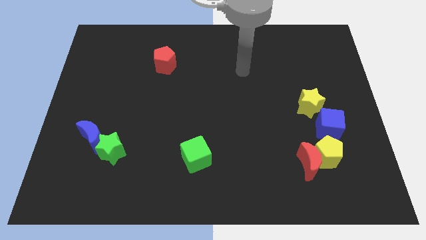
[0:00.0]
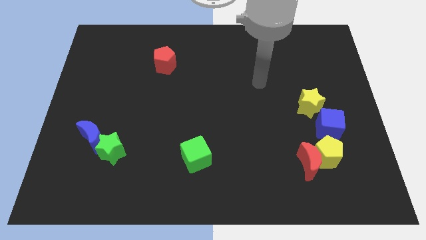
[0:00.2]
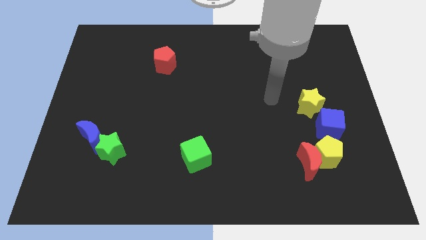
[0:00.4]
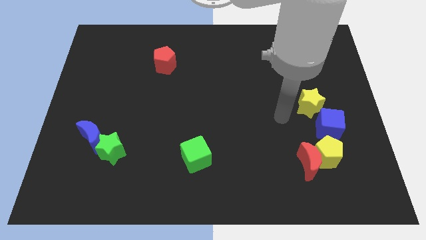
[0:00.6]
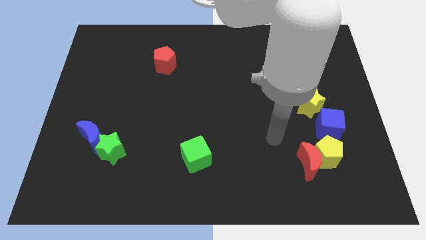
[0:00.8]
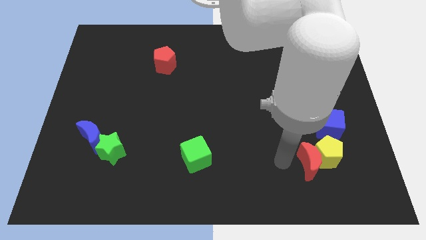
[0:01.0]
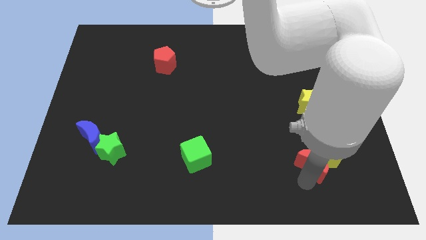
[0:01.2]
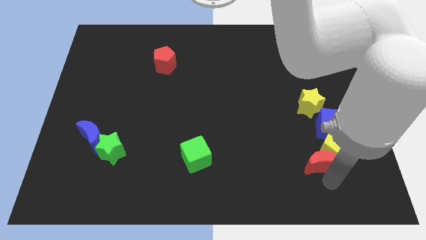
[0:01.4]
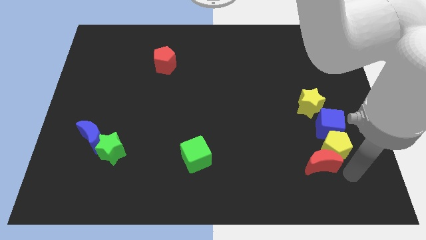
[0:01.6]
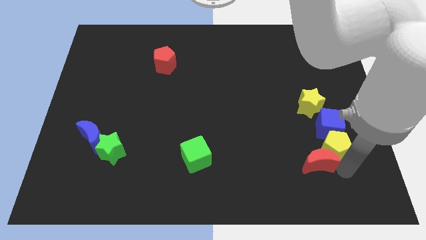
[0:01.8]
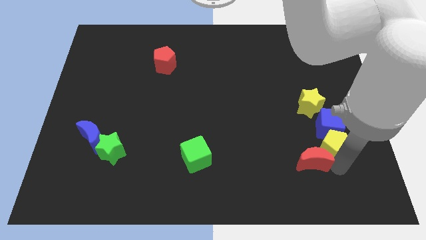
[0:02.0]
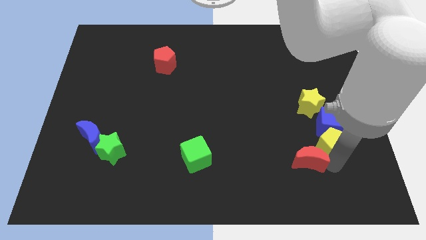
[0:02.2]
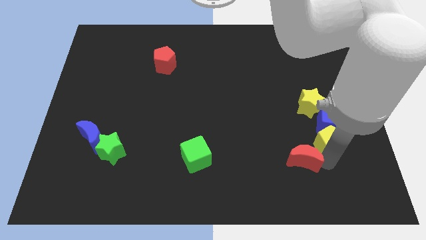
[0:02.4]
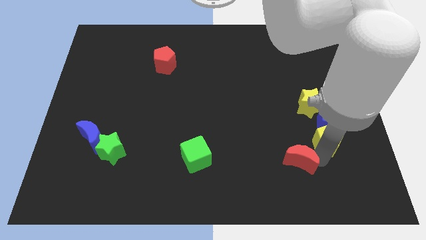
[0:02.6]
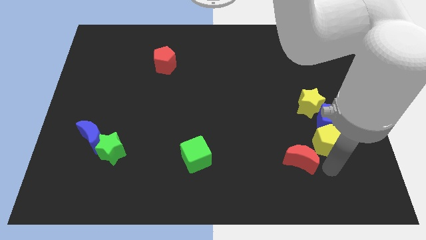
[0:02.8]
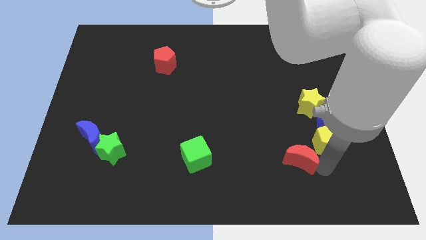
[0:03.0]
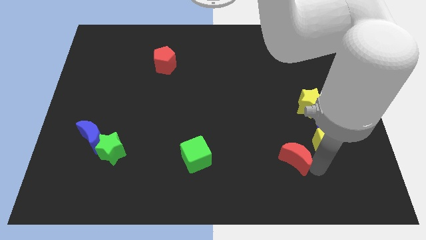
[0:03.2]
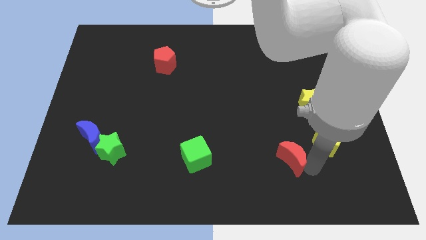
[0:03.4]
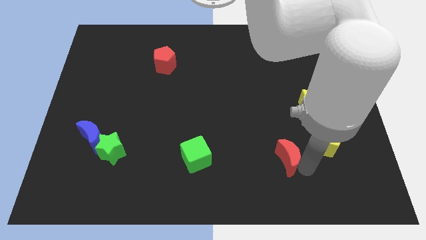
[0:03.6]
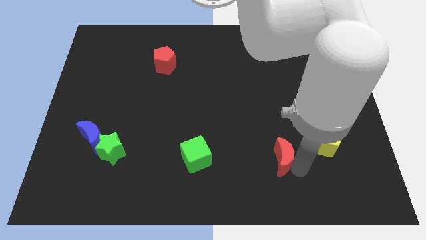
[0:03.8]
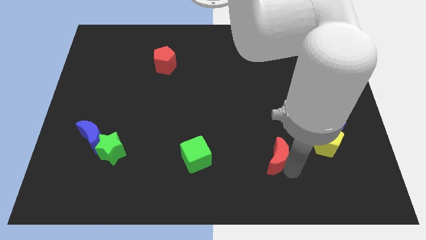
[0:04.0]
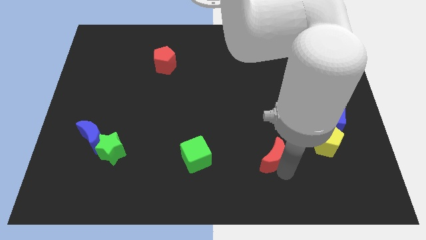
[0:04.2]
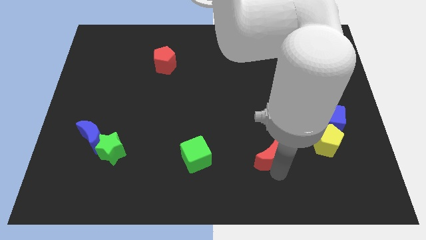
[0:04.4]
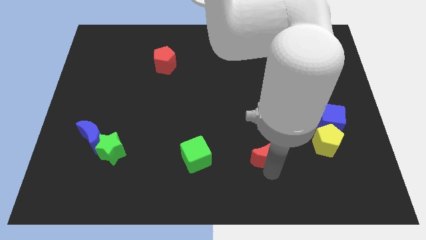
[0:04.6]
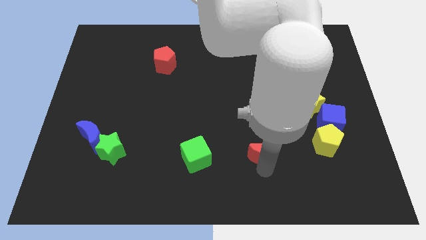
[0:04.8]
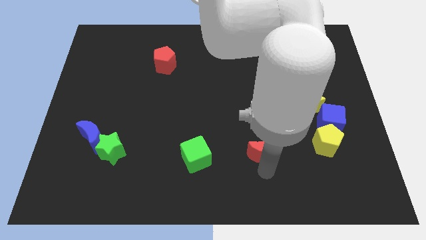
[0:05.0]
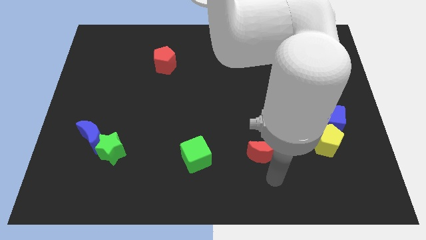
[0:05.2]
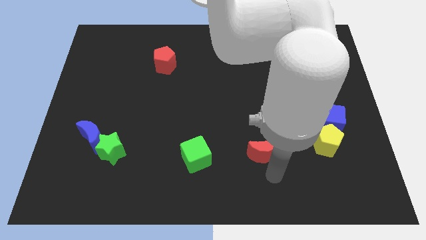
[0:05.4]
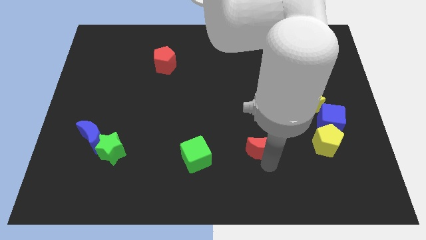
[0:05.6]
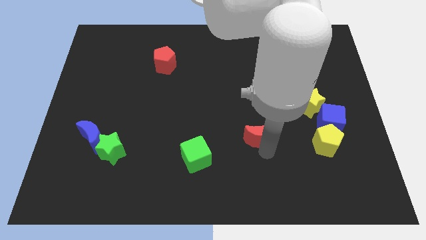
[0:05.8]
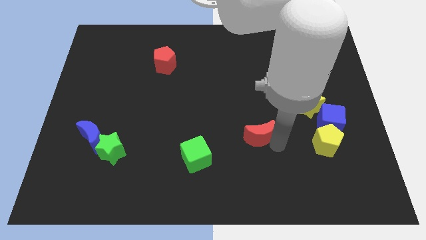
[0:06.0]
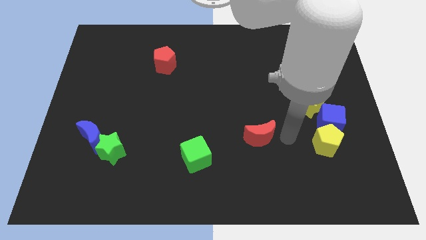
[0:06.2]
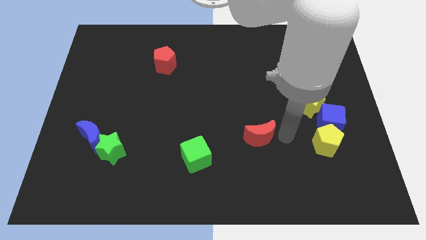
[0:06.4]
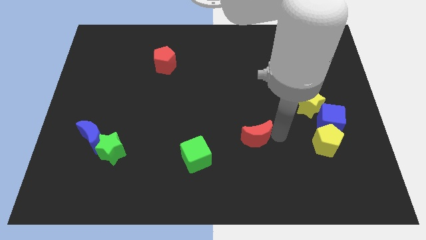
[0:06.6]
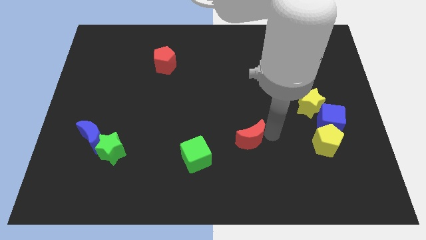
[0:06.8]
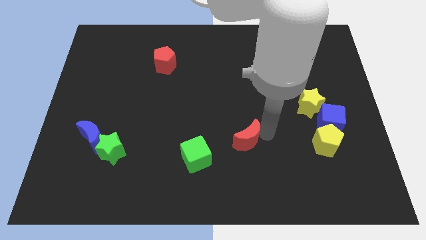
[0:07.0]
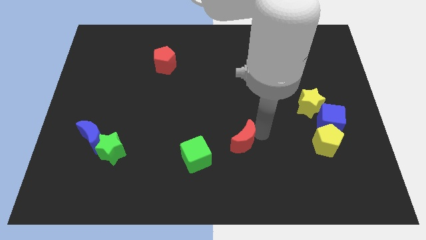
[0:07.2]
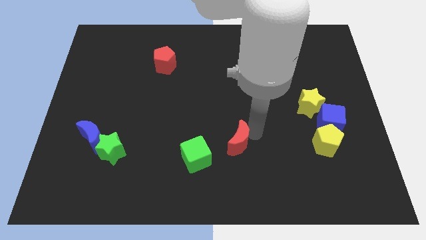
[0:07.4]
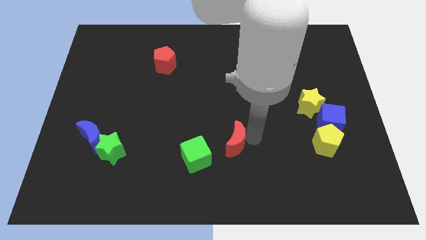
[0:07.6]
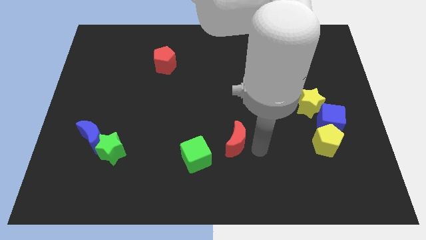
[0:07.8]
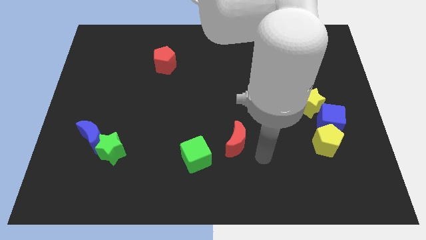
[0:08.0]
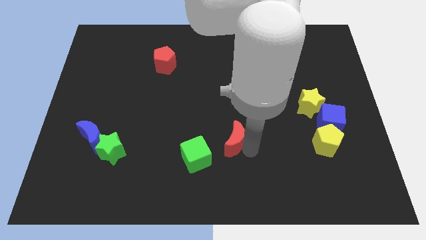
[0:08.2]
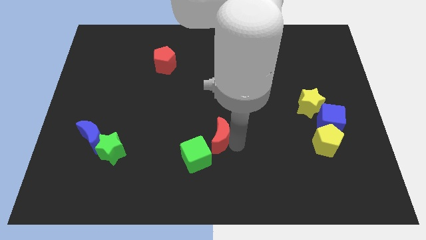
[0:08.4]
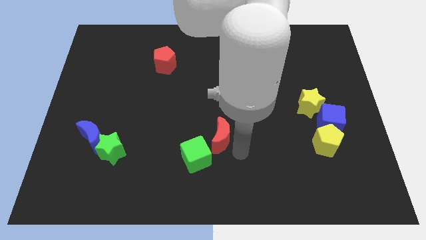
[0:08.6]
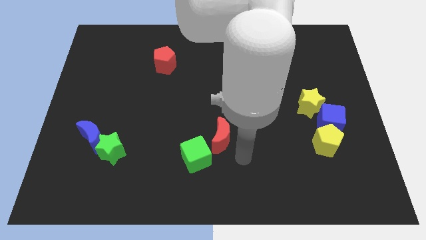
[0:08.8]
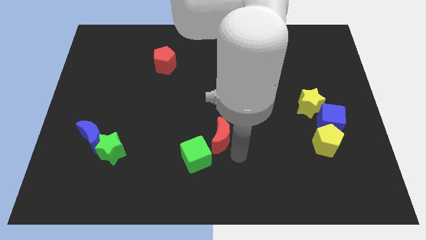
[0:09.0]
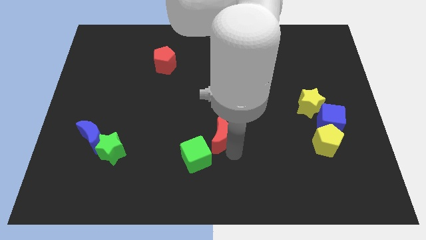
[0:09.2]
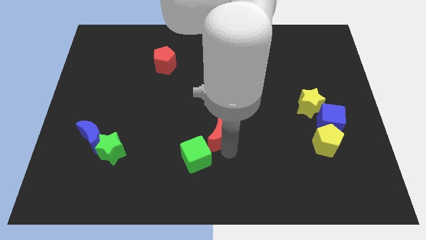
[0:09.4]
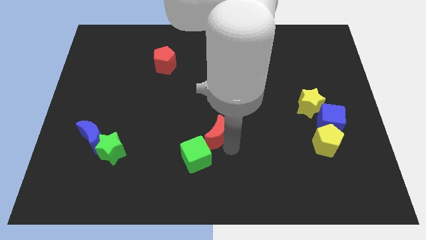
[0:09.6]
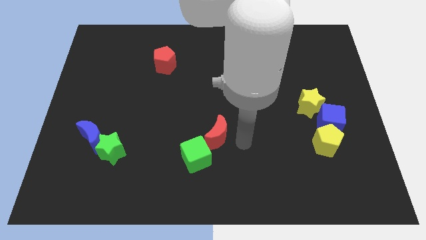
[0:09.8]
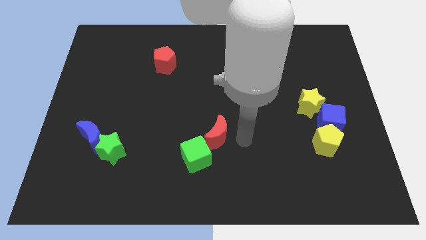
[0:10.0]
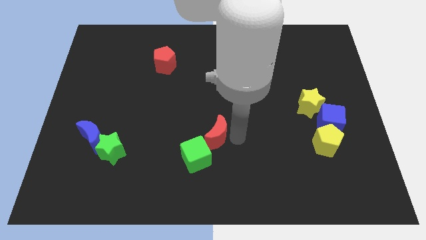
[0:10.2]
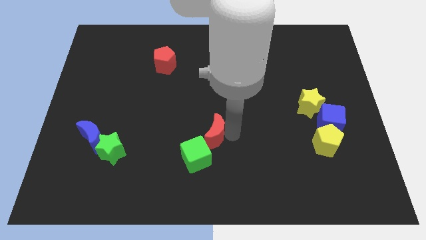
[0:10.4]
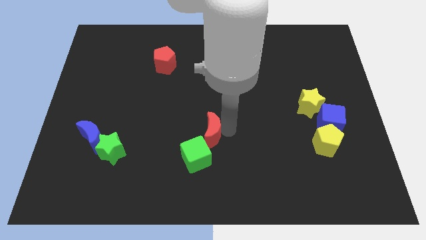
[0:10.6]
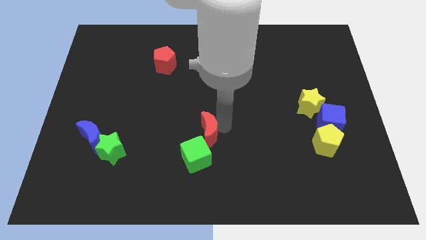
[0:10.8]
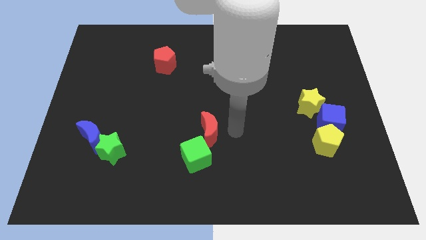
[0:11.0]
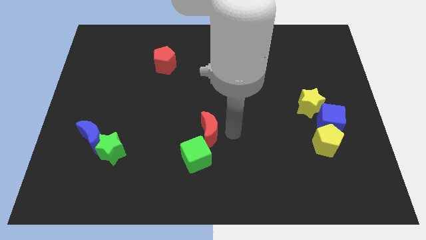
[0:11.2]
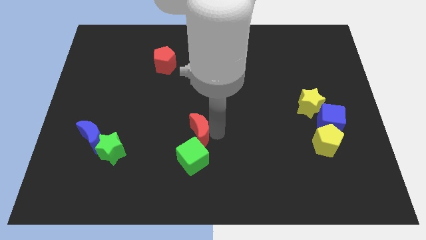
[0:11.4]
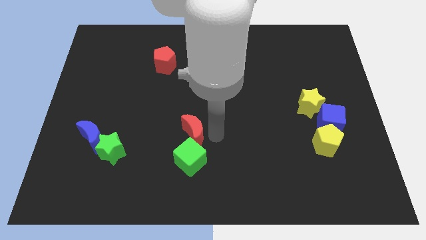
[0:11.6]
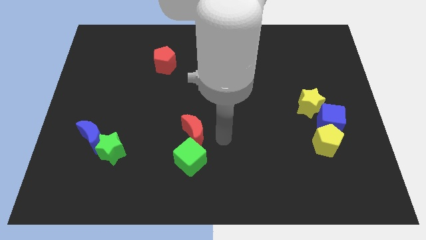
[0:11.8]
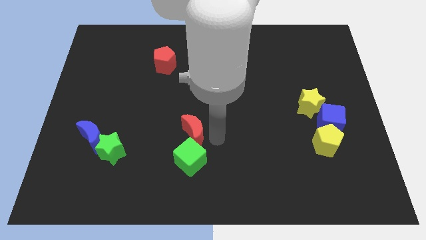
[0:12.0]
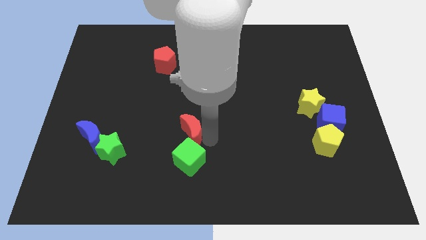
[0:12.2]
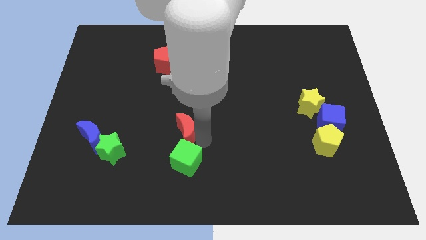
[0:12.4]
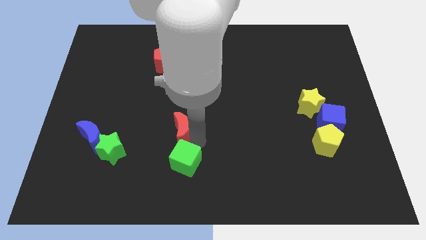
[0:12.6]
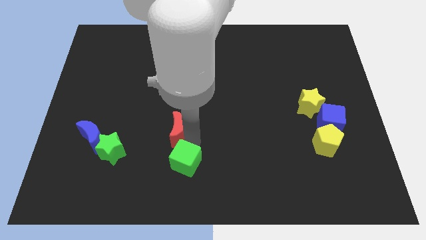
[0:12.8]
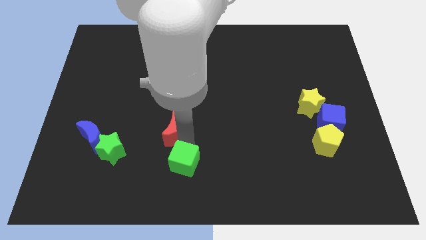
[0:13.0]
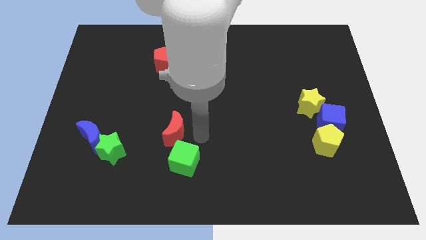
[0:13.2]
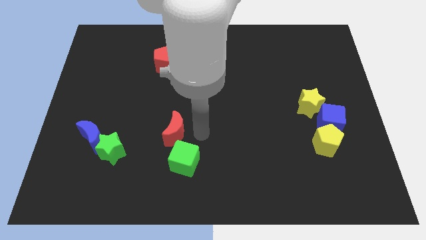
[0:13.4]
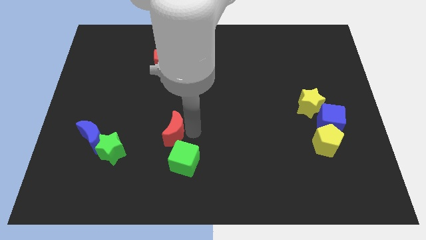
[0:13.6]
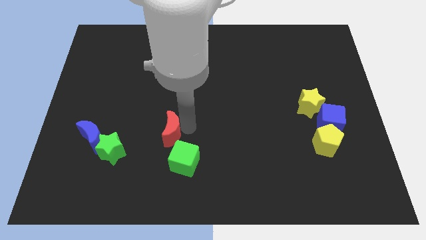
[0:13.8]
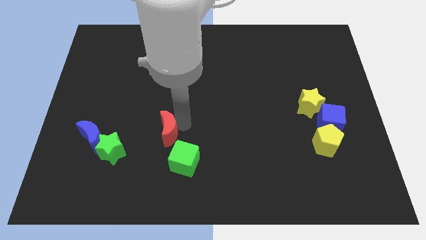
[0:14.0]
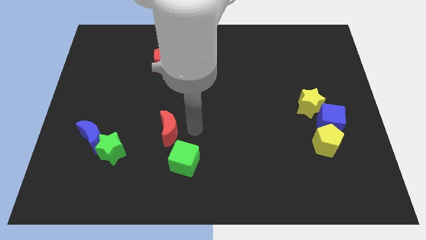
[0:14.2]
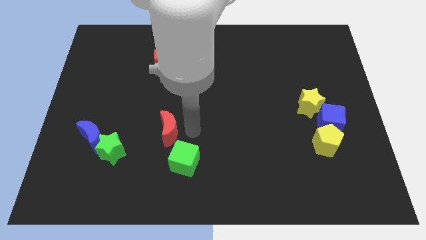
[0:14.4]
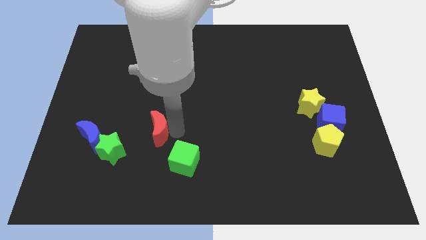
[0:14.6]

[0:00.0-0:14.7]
push the red moon diagonally up and to the right of the green star

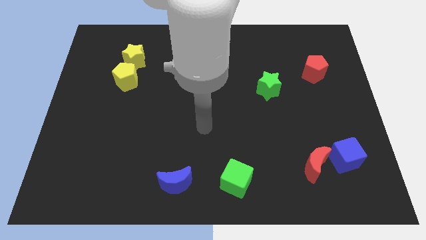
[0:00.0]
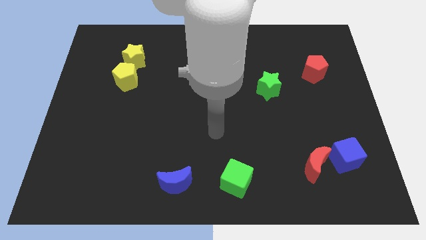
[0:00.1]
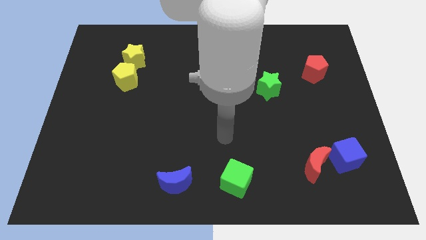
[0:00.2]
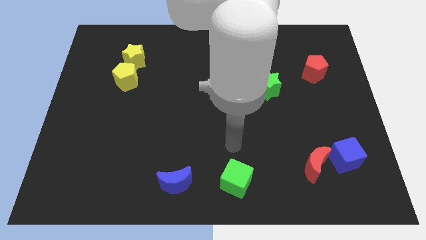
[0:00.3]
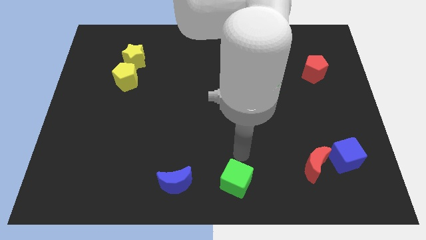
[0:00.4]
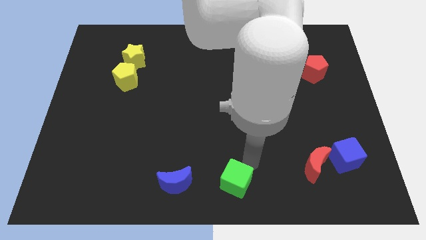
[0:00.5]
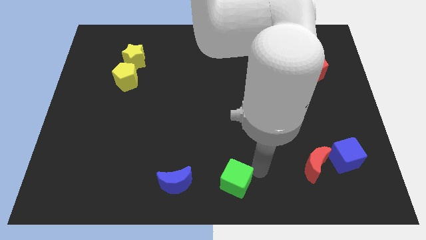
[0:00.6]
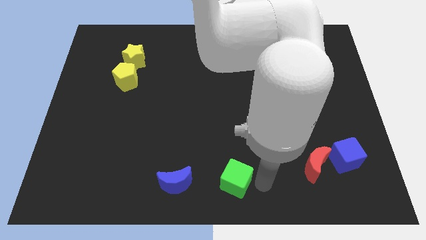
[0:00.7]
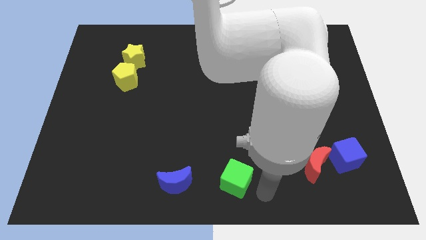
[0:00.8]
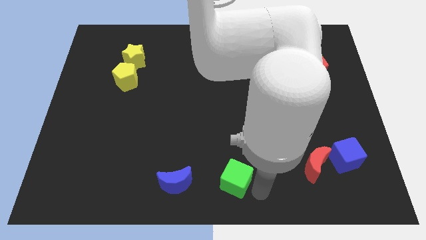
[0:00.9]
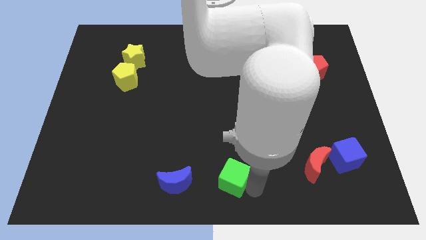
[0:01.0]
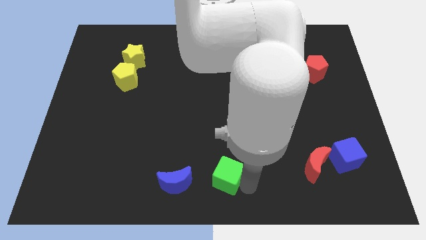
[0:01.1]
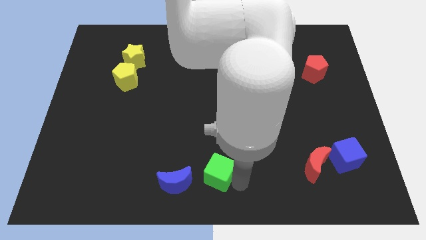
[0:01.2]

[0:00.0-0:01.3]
put the green cube to the top right of the blue moon
